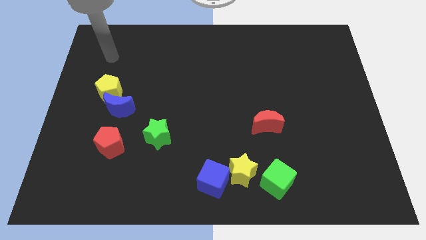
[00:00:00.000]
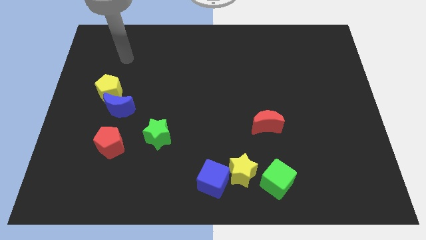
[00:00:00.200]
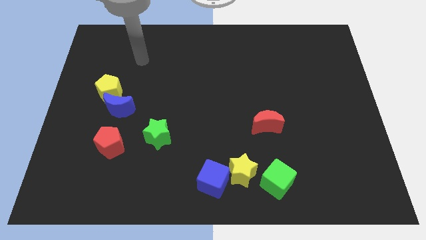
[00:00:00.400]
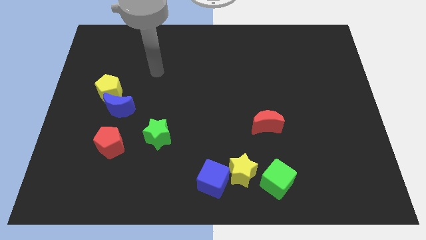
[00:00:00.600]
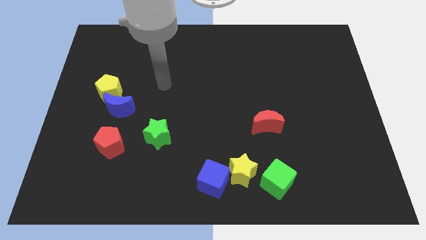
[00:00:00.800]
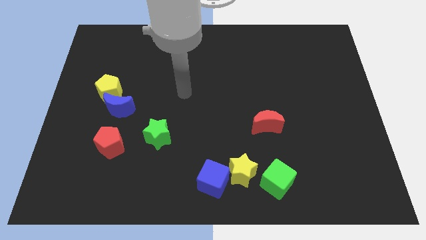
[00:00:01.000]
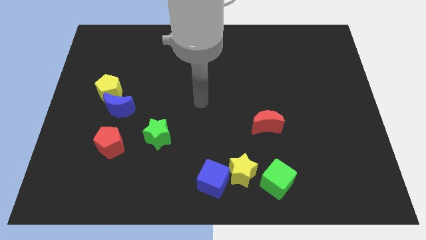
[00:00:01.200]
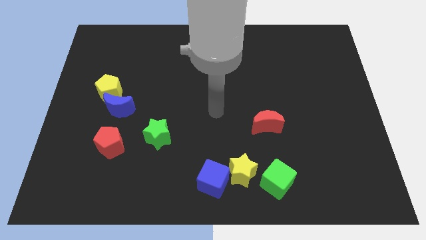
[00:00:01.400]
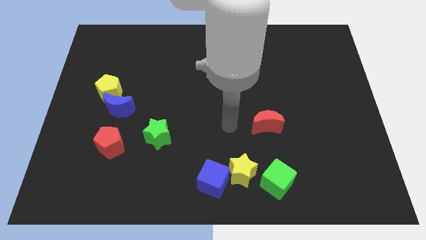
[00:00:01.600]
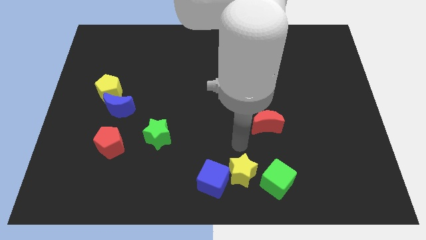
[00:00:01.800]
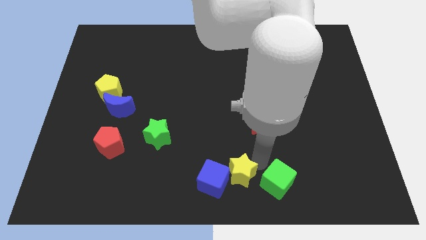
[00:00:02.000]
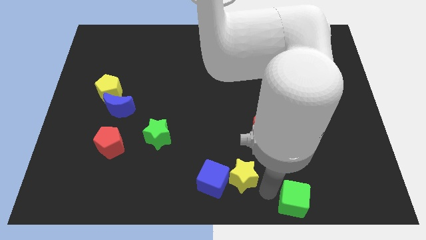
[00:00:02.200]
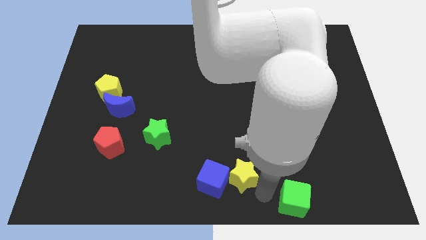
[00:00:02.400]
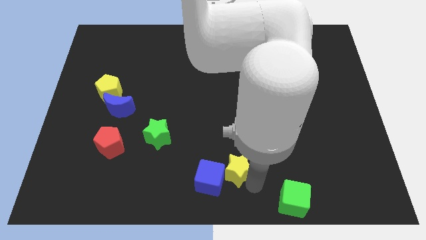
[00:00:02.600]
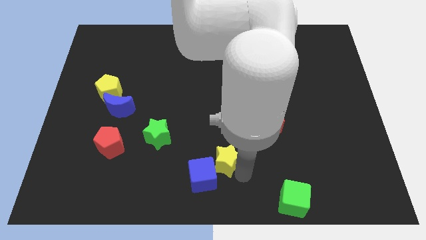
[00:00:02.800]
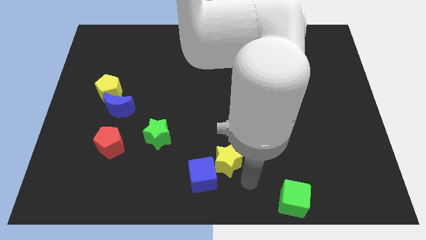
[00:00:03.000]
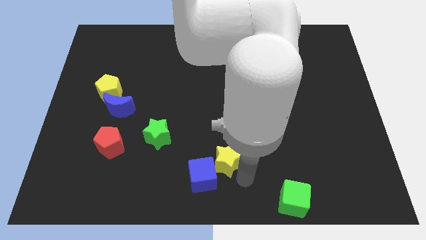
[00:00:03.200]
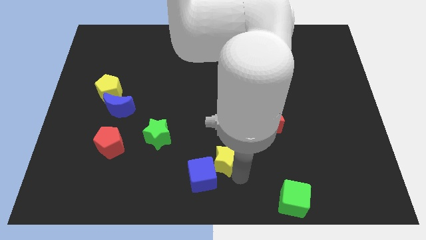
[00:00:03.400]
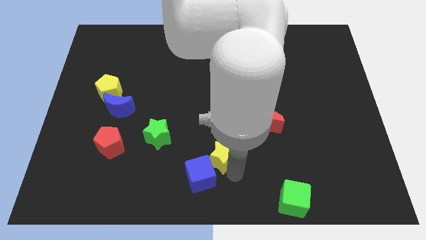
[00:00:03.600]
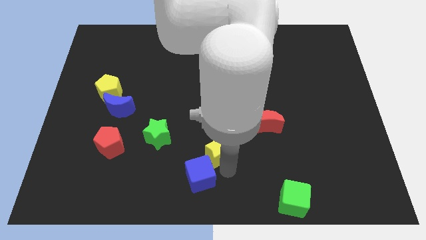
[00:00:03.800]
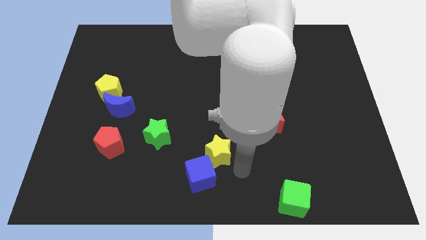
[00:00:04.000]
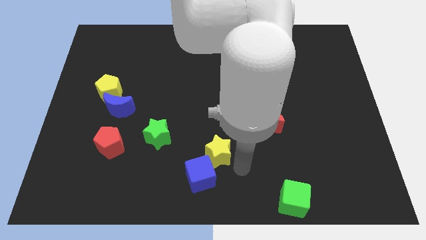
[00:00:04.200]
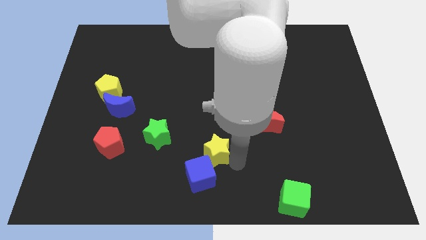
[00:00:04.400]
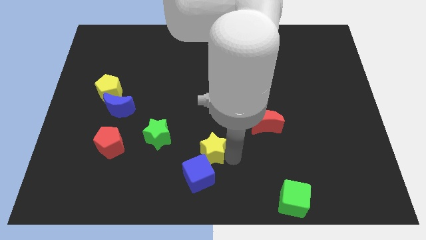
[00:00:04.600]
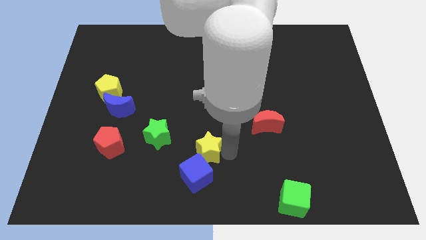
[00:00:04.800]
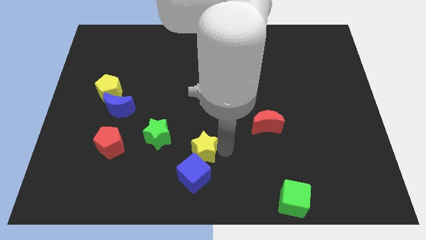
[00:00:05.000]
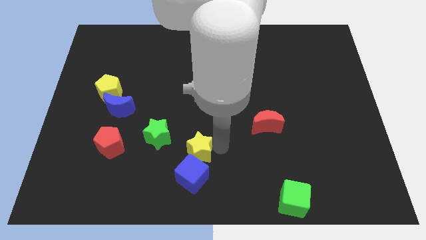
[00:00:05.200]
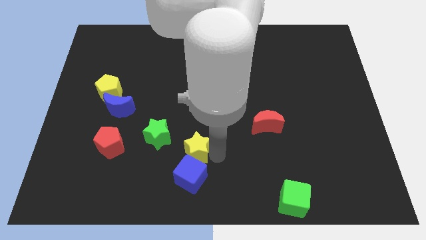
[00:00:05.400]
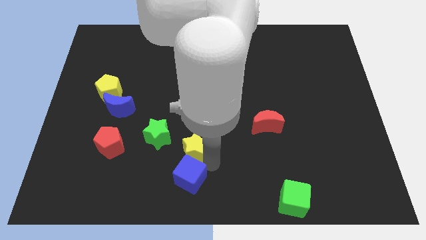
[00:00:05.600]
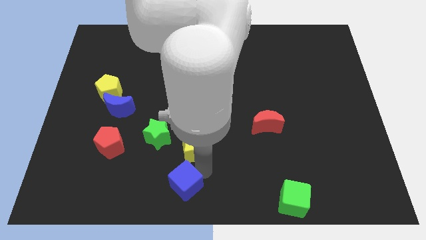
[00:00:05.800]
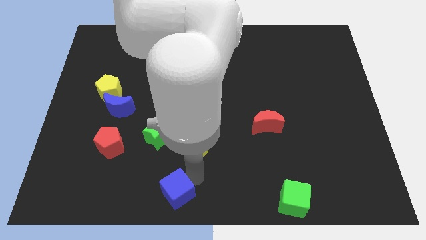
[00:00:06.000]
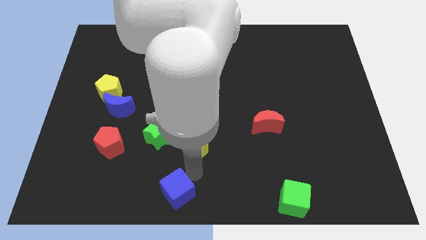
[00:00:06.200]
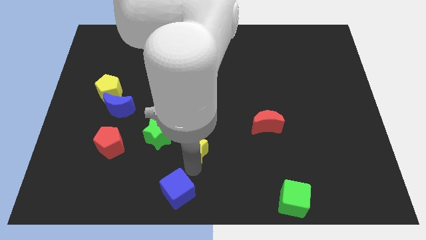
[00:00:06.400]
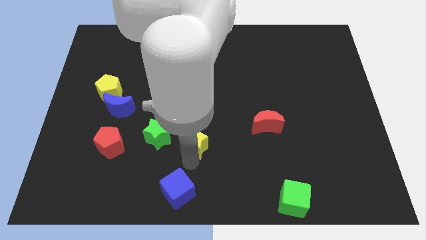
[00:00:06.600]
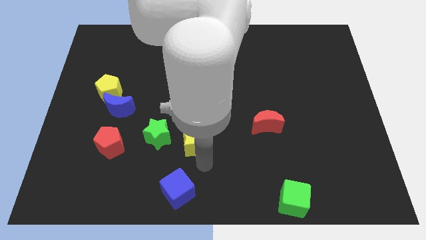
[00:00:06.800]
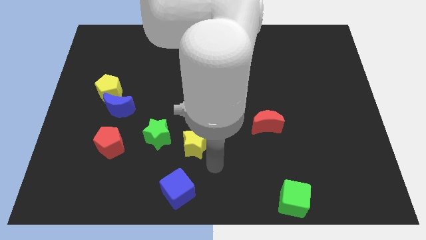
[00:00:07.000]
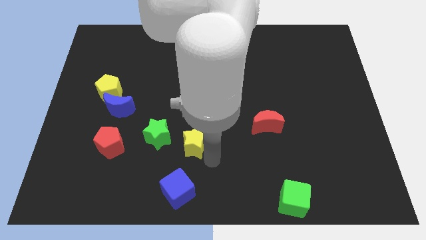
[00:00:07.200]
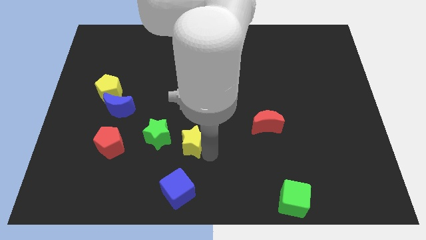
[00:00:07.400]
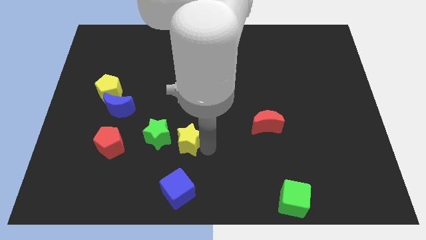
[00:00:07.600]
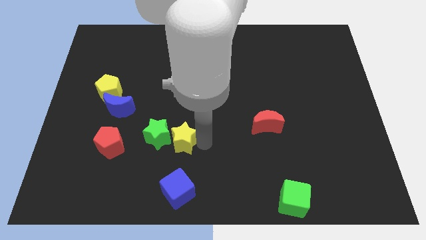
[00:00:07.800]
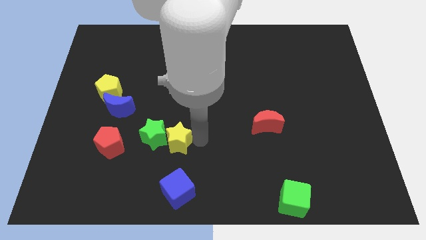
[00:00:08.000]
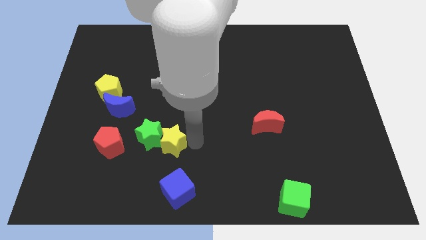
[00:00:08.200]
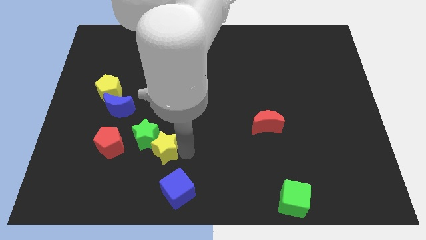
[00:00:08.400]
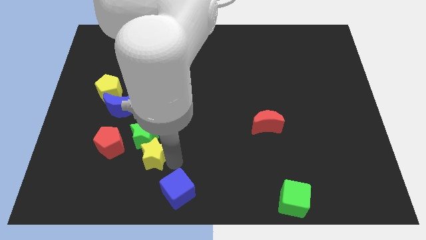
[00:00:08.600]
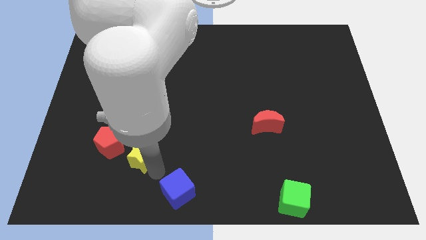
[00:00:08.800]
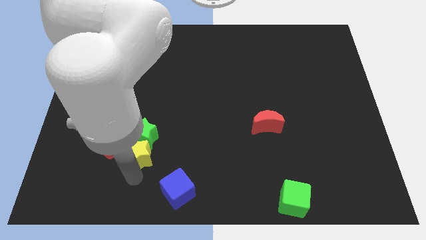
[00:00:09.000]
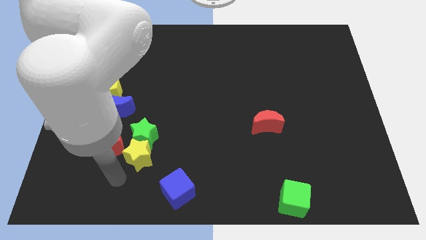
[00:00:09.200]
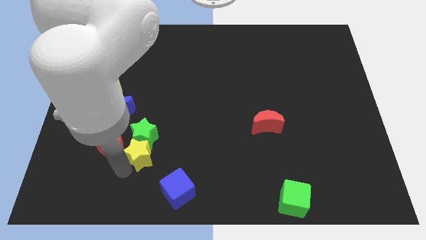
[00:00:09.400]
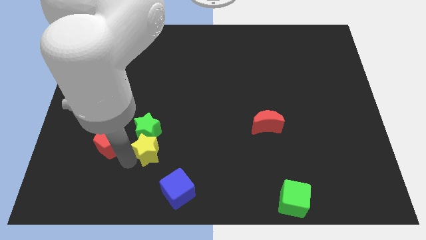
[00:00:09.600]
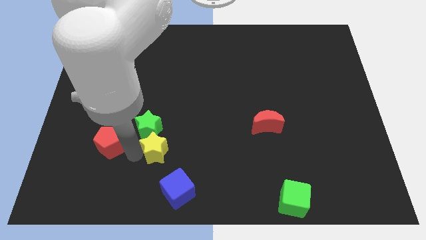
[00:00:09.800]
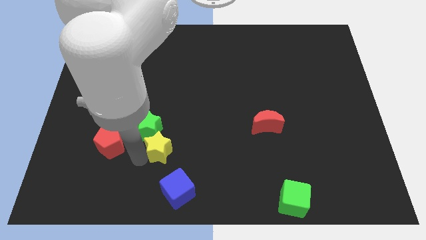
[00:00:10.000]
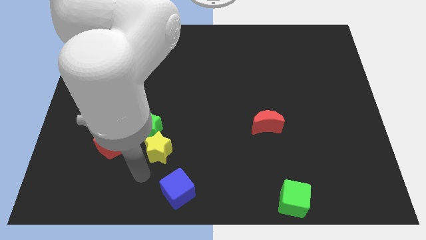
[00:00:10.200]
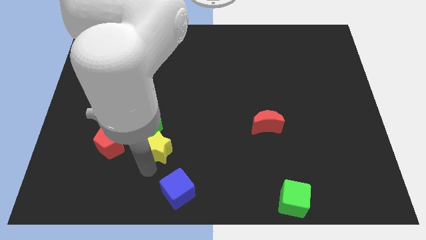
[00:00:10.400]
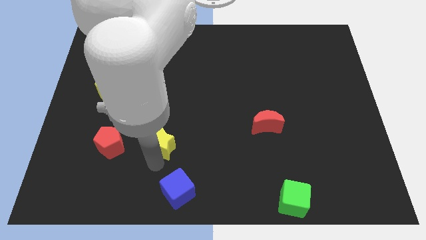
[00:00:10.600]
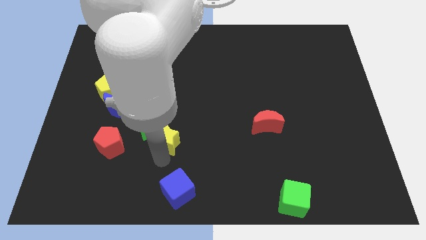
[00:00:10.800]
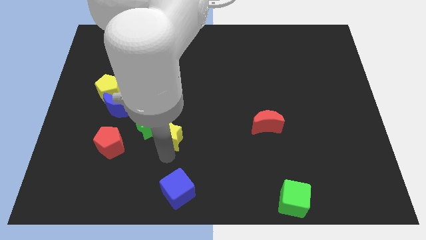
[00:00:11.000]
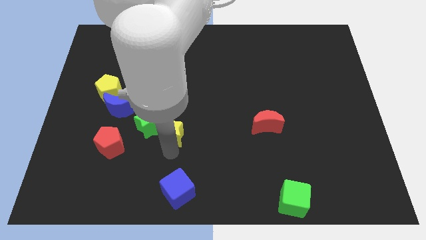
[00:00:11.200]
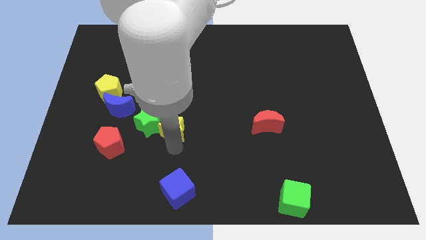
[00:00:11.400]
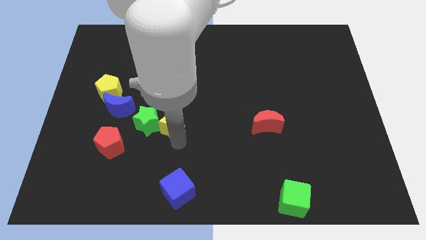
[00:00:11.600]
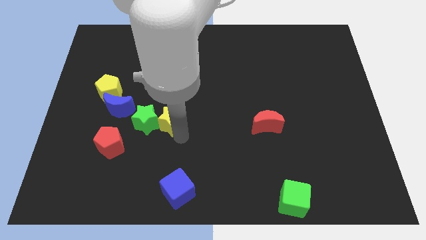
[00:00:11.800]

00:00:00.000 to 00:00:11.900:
put the yellow star to the right side of the blue moon
